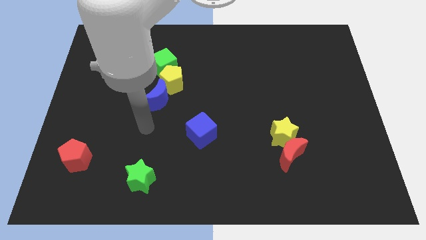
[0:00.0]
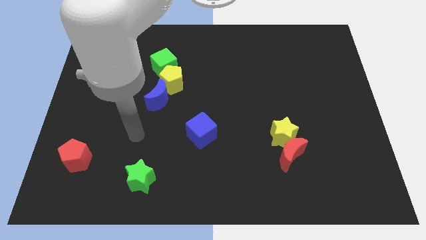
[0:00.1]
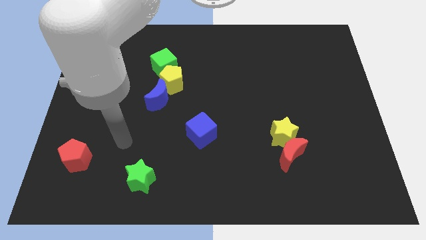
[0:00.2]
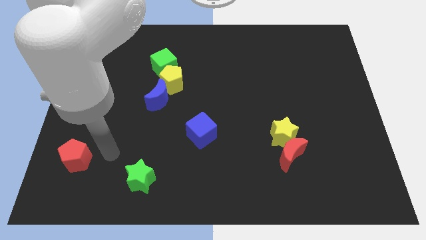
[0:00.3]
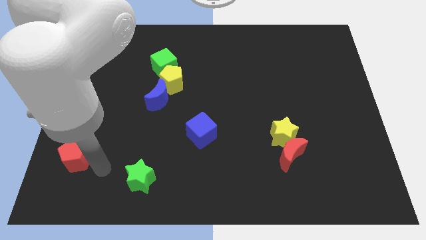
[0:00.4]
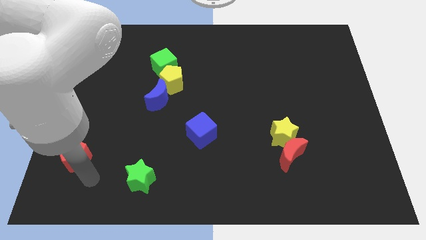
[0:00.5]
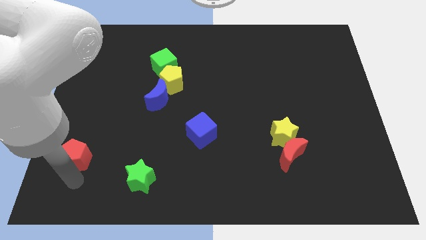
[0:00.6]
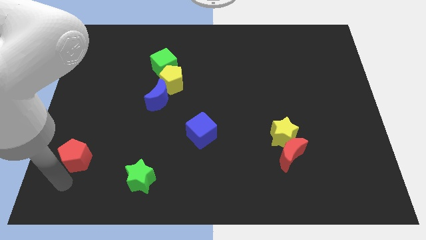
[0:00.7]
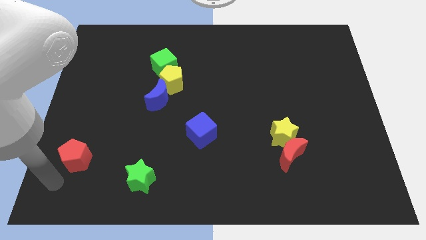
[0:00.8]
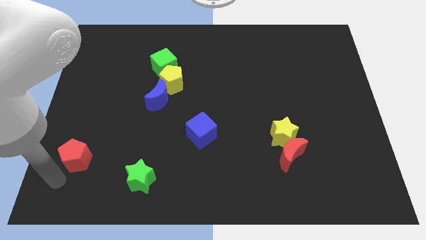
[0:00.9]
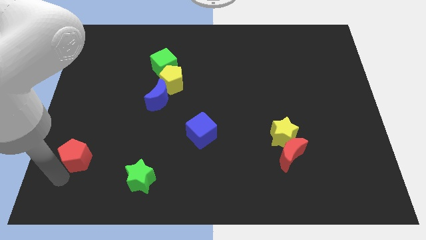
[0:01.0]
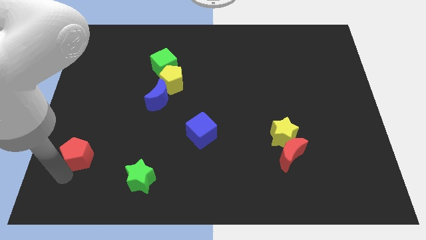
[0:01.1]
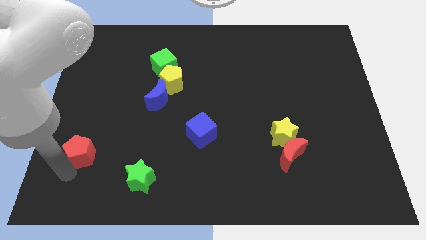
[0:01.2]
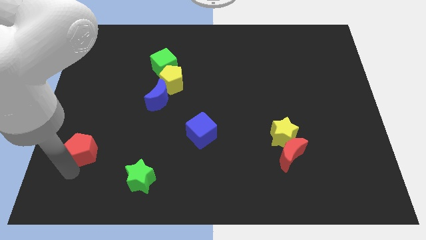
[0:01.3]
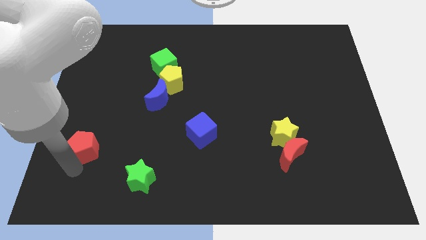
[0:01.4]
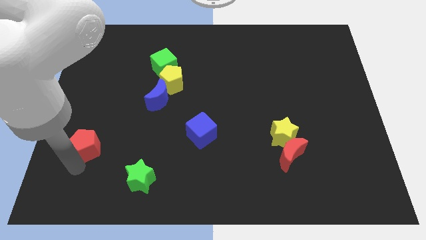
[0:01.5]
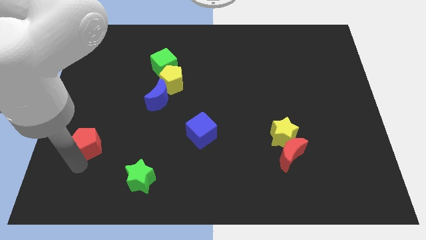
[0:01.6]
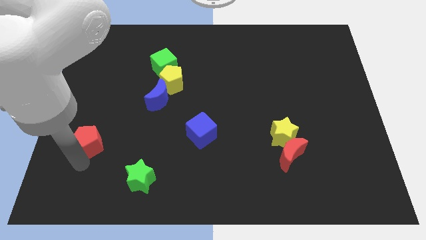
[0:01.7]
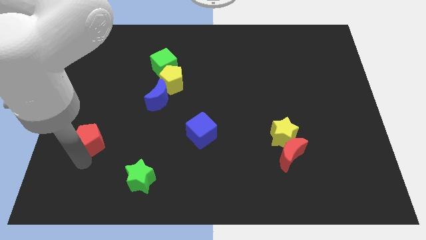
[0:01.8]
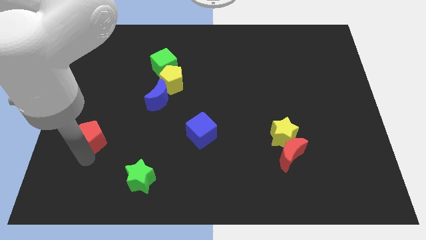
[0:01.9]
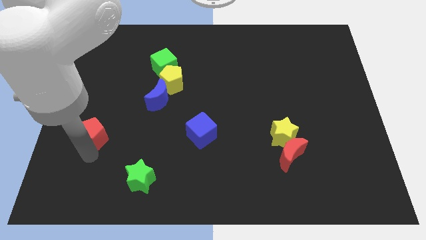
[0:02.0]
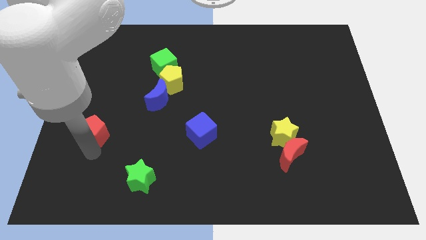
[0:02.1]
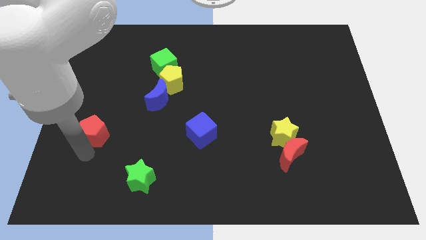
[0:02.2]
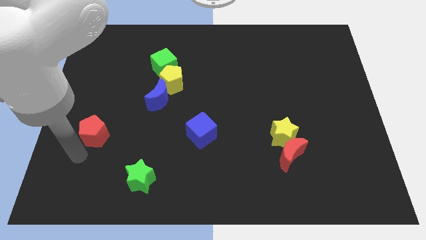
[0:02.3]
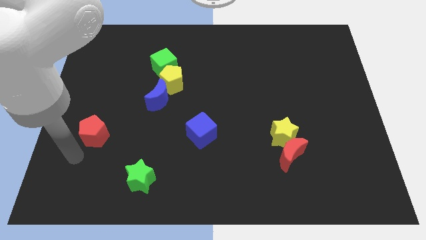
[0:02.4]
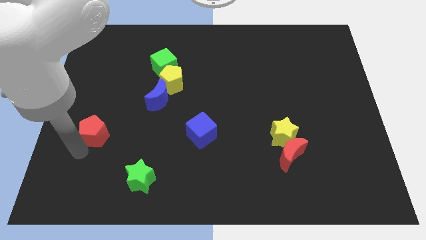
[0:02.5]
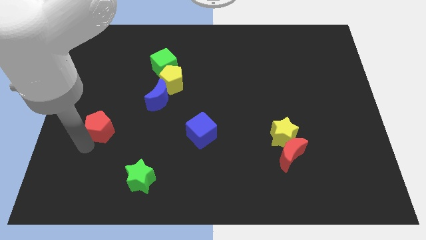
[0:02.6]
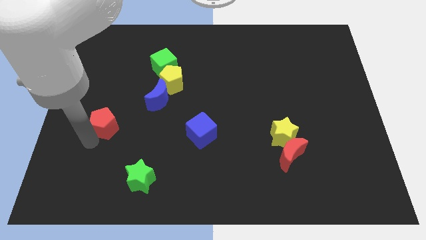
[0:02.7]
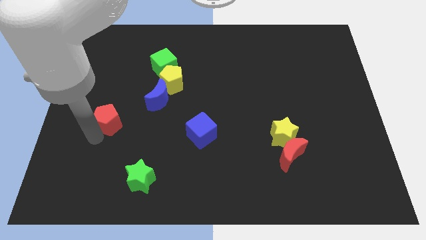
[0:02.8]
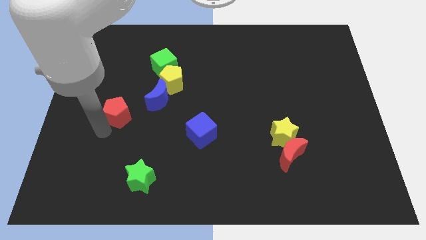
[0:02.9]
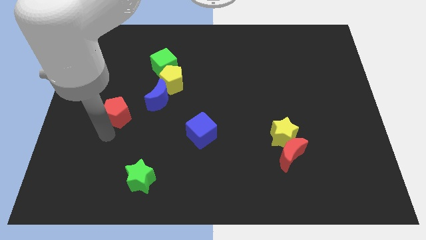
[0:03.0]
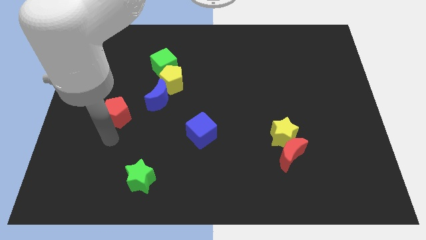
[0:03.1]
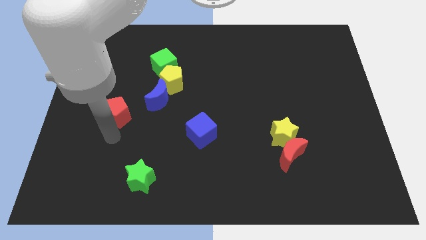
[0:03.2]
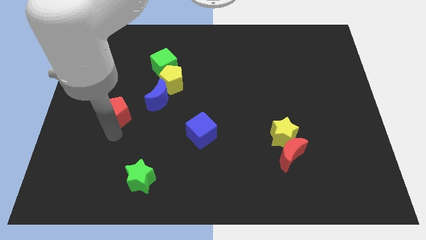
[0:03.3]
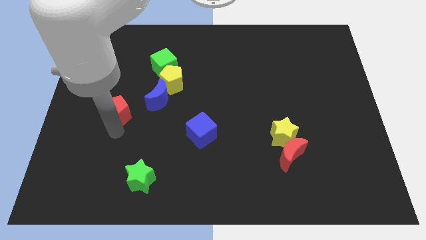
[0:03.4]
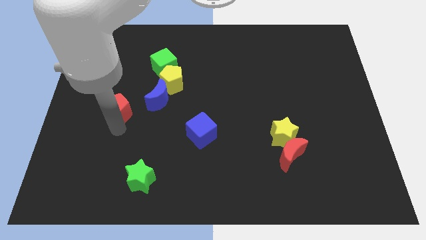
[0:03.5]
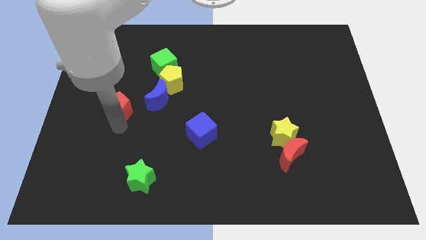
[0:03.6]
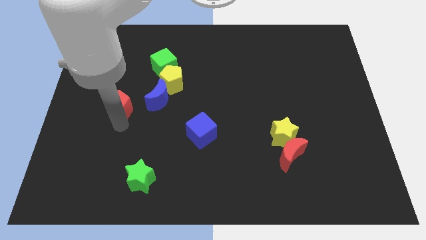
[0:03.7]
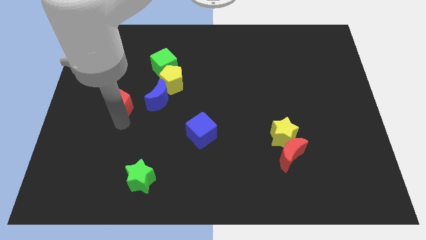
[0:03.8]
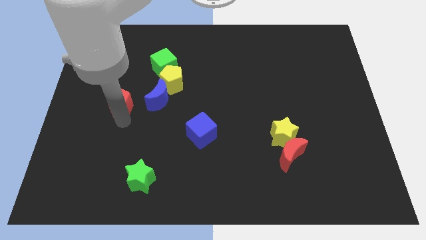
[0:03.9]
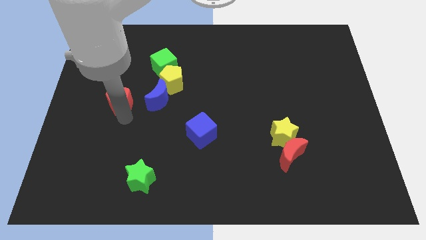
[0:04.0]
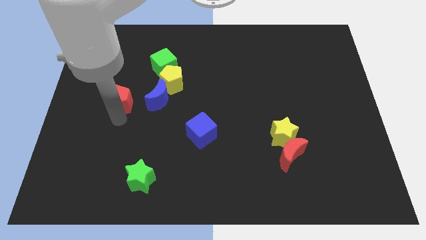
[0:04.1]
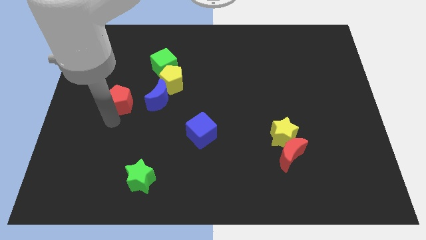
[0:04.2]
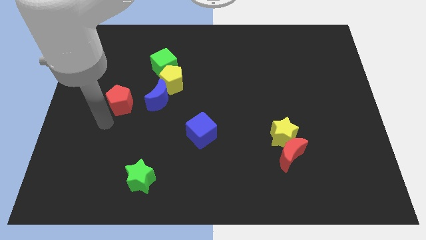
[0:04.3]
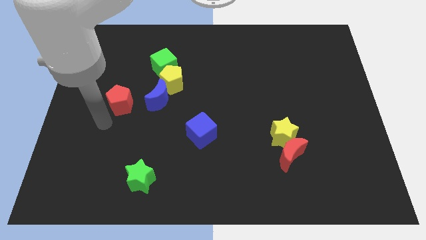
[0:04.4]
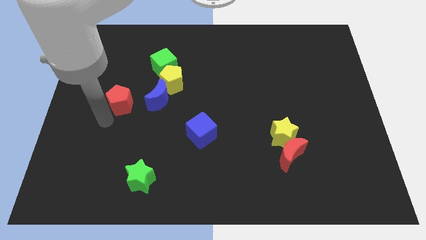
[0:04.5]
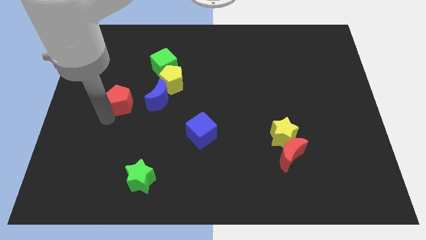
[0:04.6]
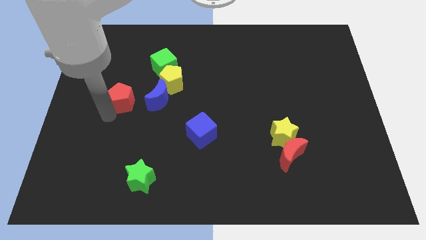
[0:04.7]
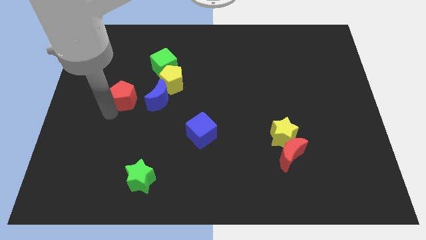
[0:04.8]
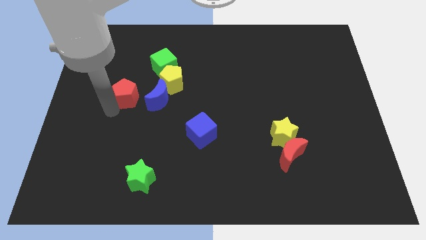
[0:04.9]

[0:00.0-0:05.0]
push the red pentagon to the top left of the blue moon

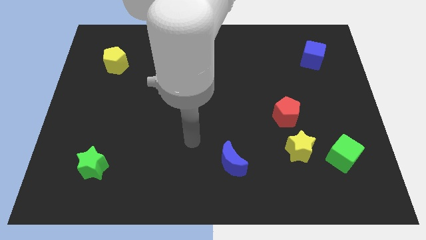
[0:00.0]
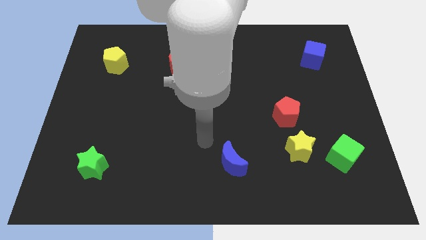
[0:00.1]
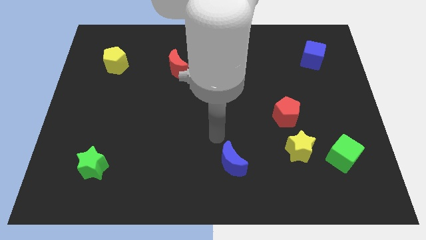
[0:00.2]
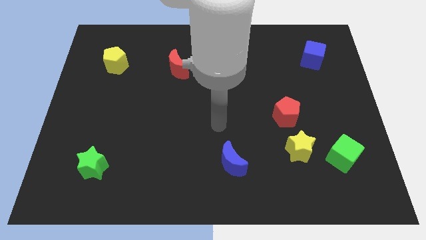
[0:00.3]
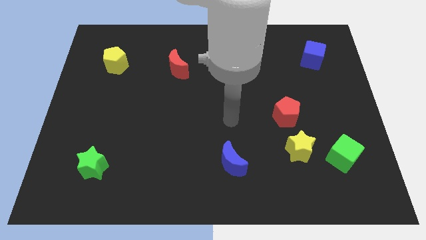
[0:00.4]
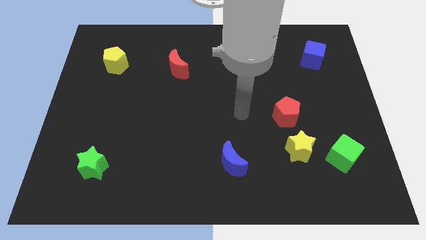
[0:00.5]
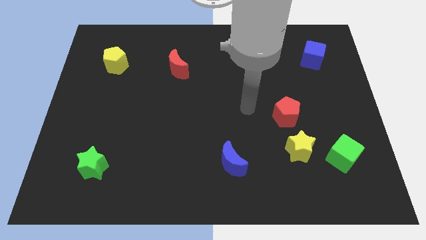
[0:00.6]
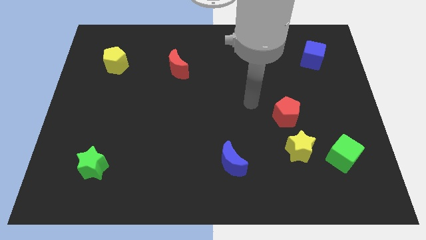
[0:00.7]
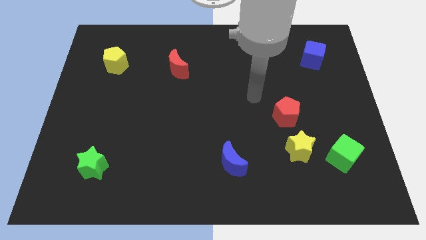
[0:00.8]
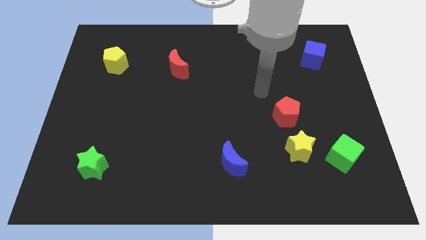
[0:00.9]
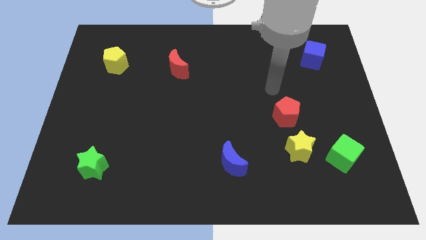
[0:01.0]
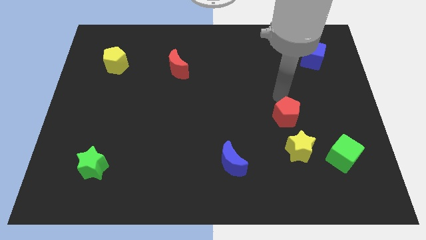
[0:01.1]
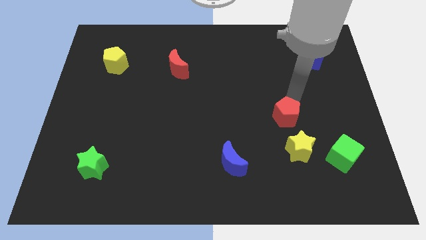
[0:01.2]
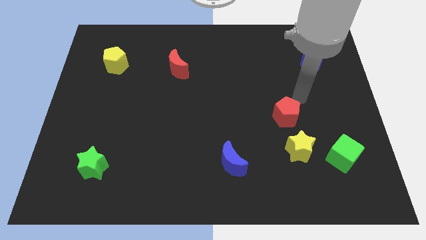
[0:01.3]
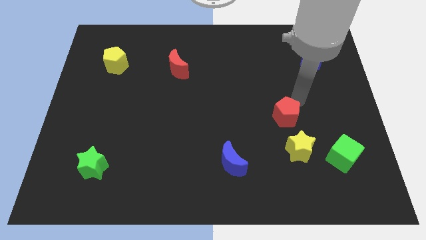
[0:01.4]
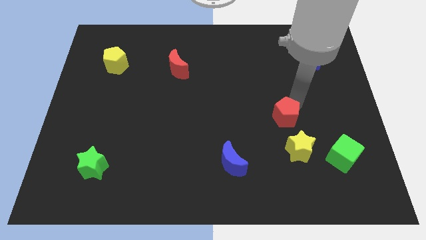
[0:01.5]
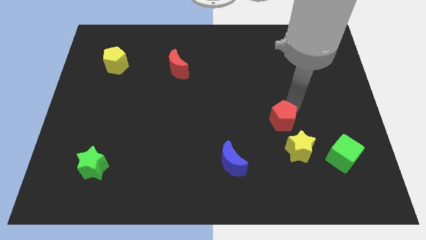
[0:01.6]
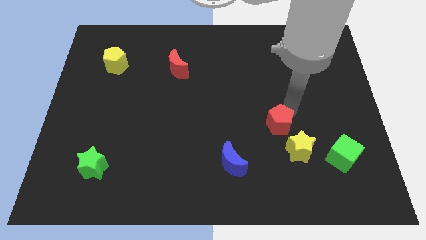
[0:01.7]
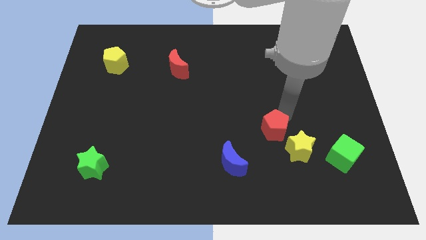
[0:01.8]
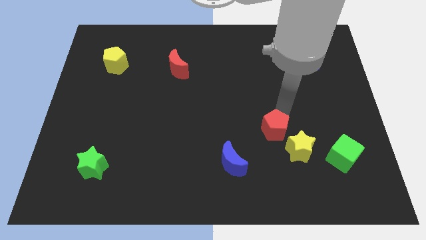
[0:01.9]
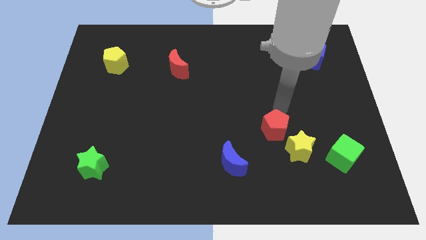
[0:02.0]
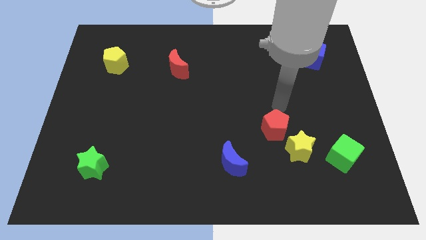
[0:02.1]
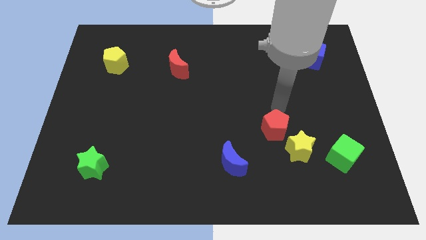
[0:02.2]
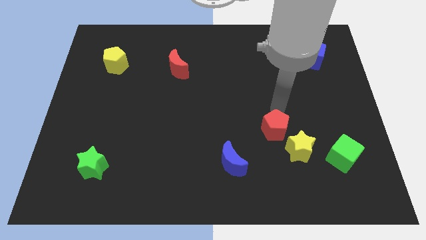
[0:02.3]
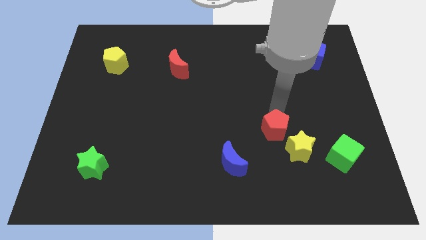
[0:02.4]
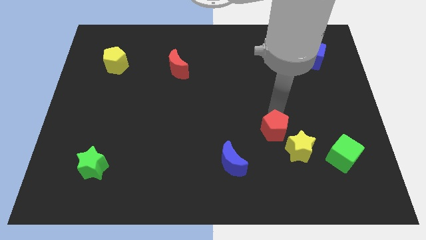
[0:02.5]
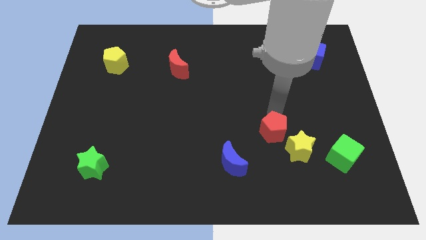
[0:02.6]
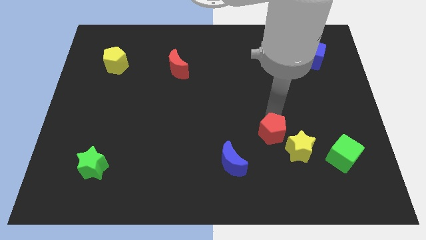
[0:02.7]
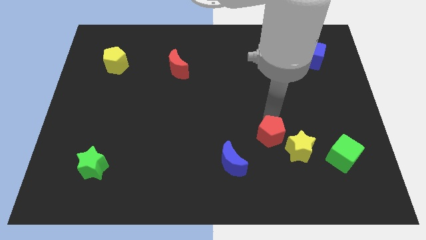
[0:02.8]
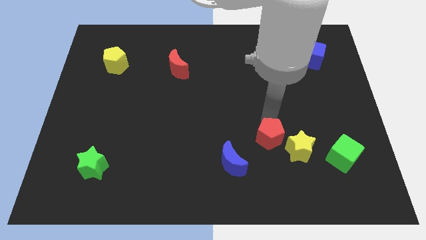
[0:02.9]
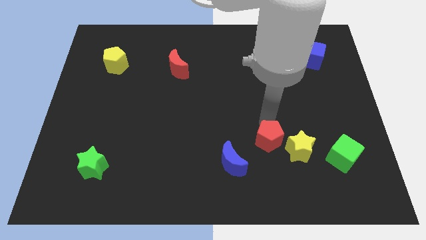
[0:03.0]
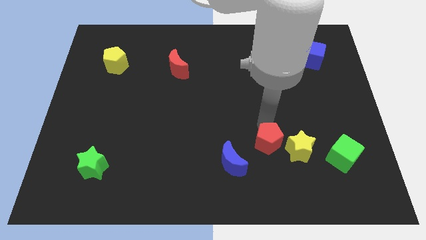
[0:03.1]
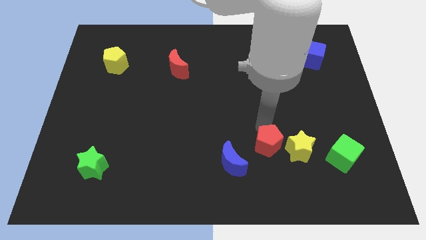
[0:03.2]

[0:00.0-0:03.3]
push the red pentagon to the right of the blue moon
